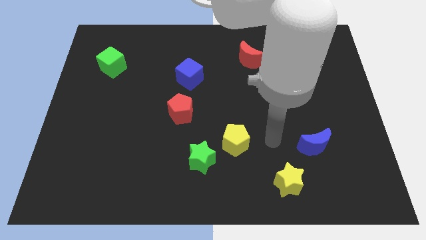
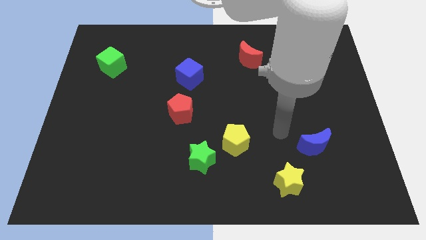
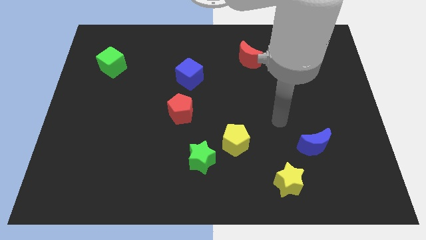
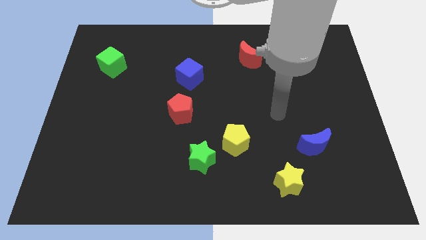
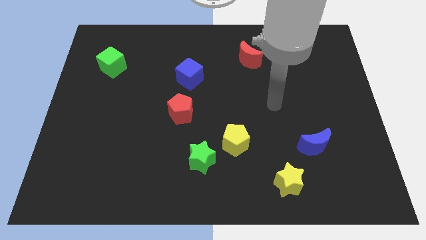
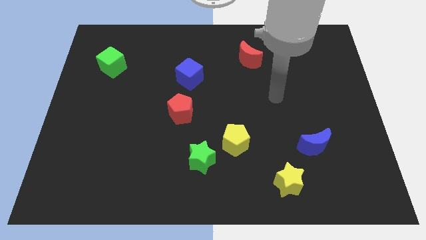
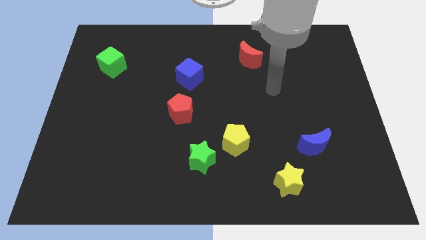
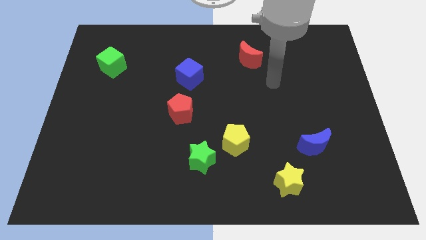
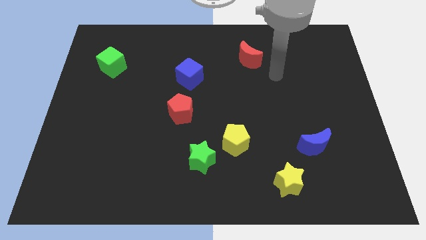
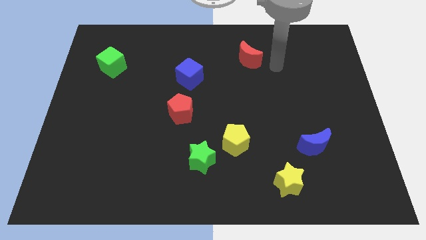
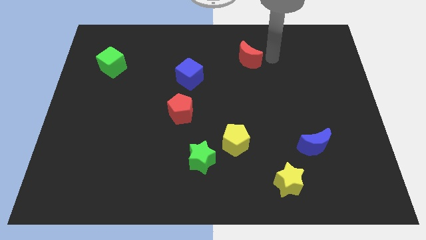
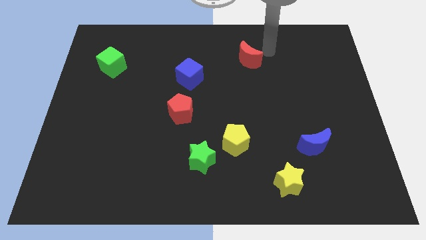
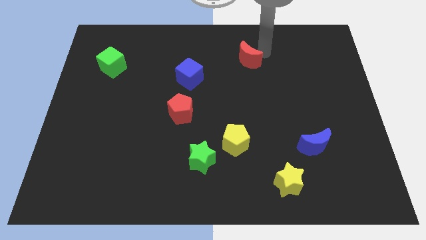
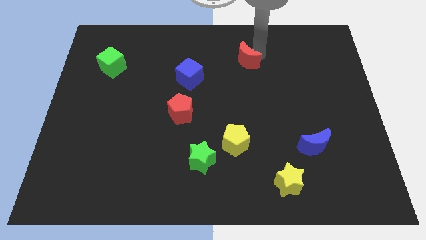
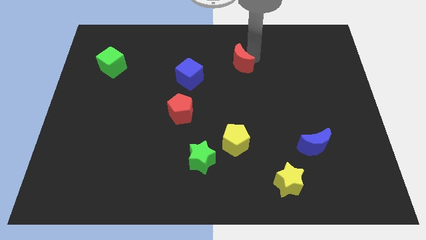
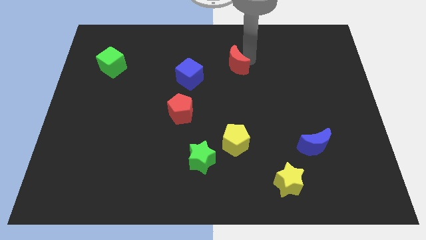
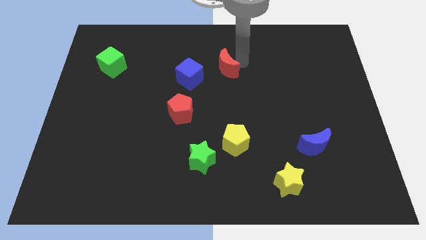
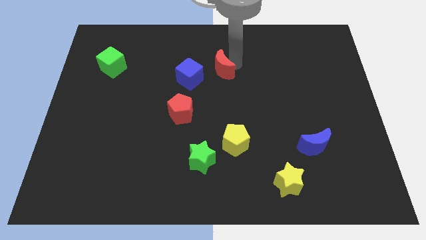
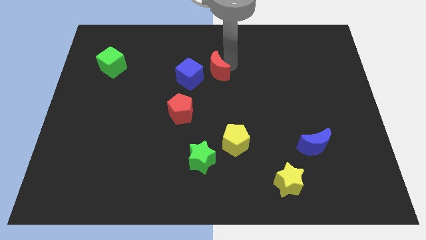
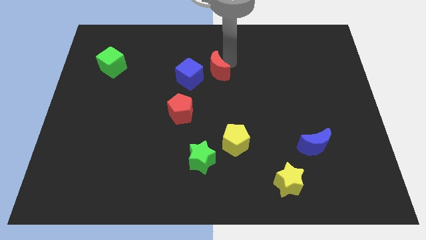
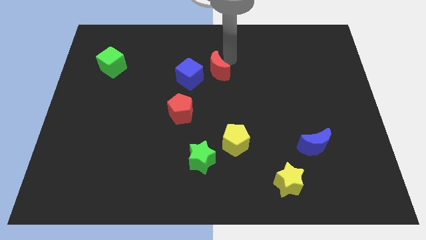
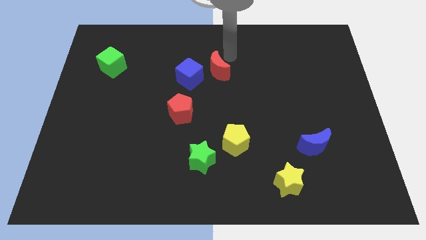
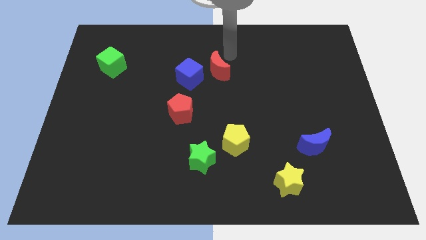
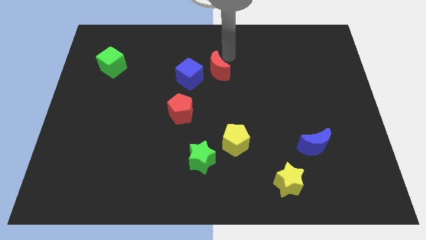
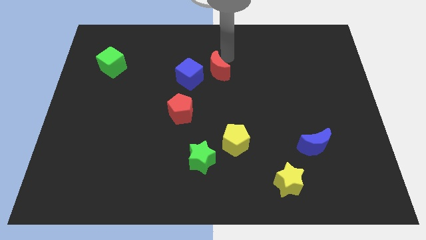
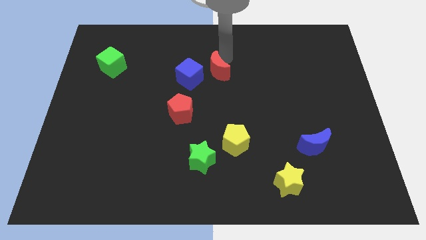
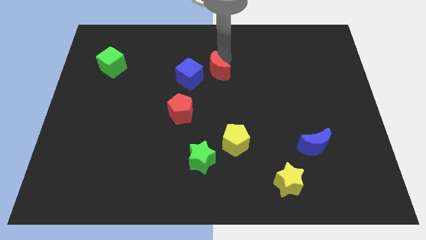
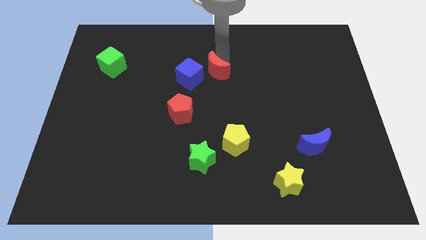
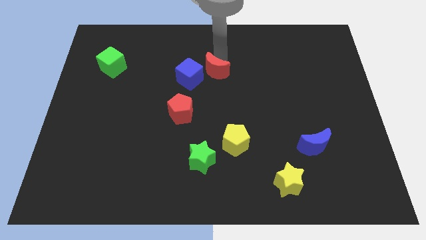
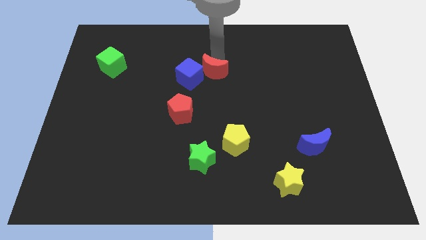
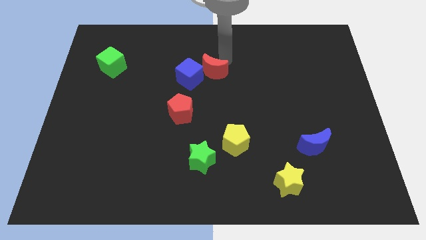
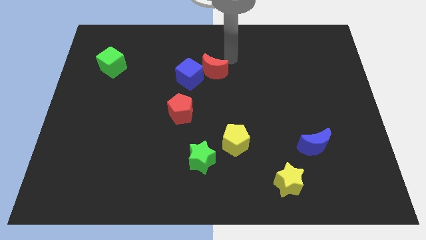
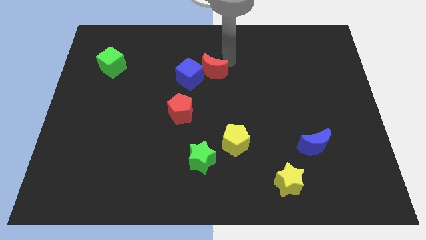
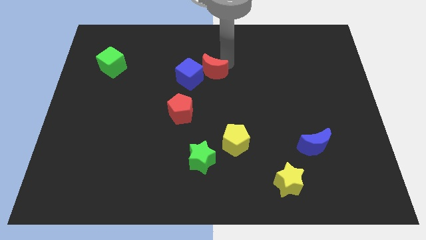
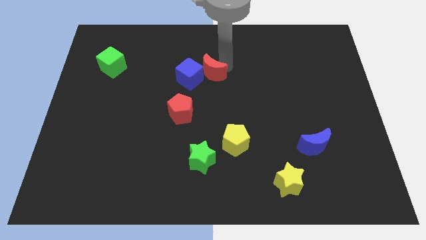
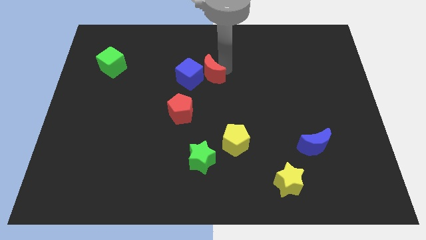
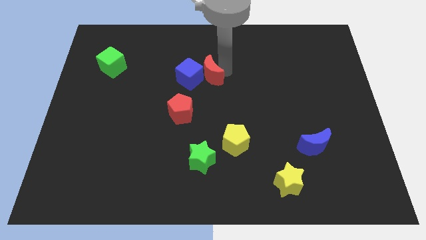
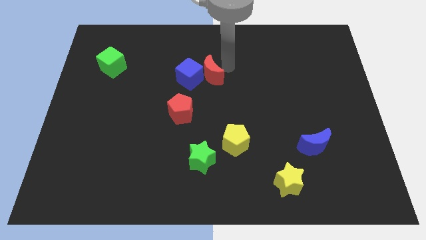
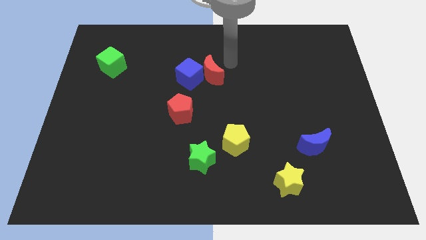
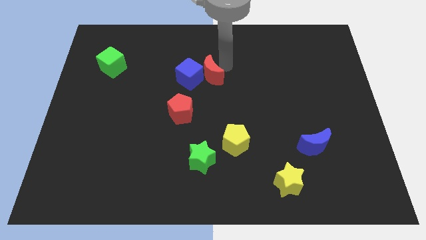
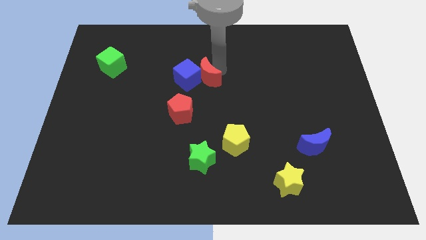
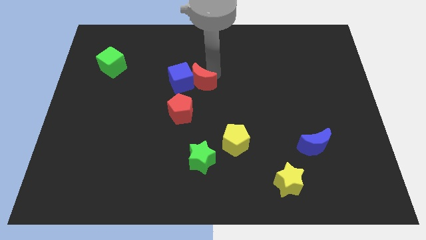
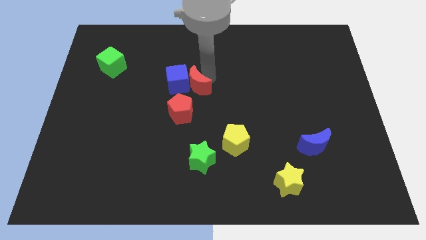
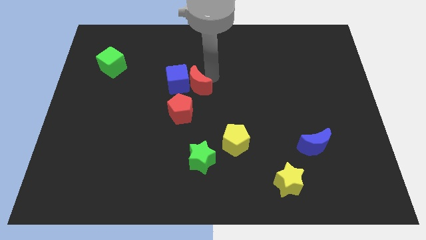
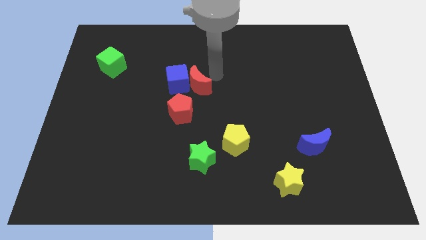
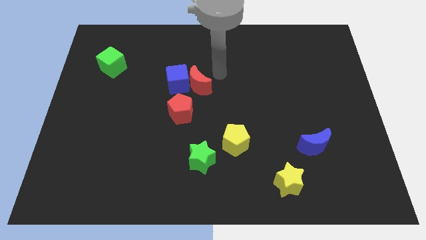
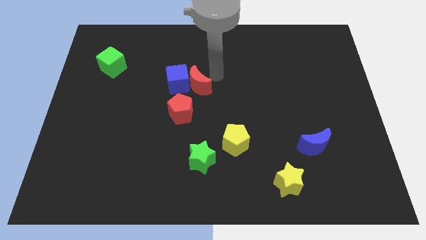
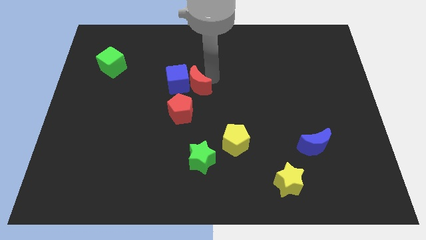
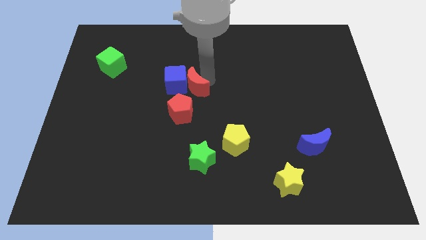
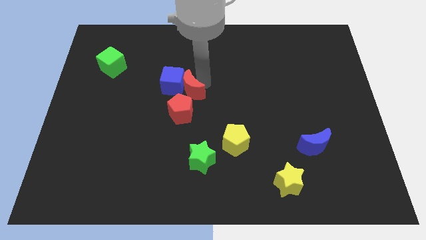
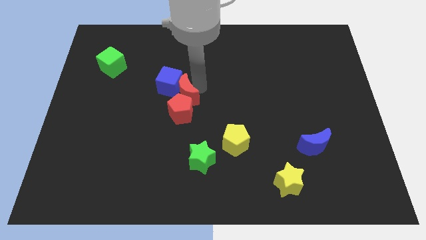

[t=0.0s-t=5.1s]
move the red moon to the top left of the red pentagon

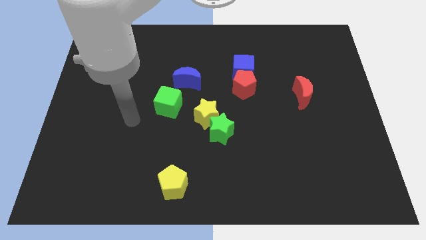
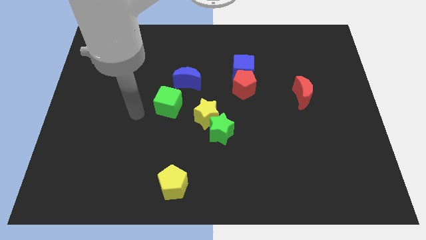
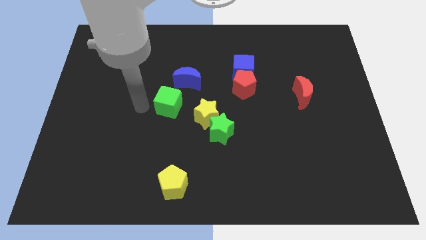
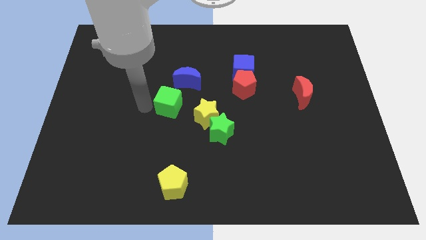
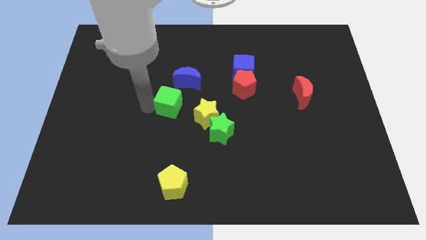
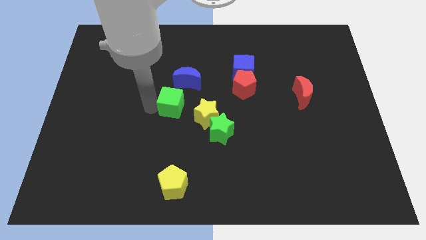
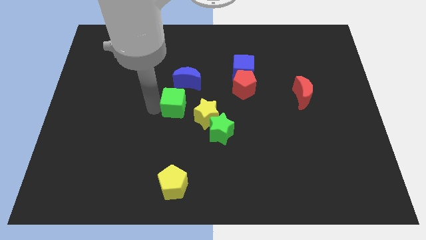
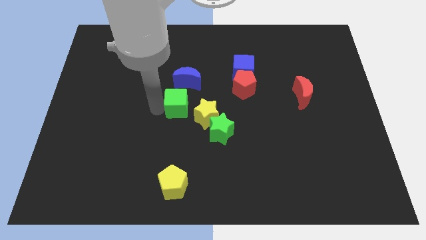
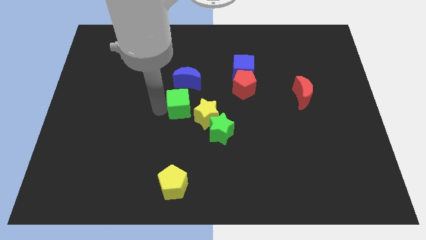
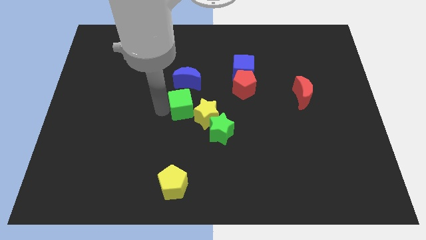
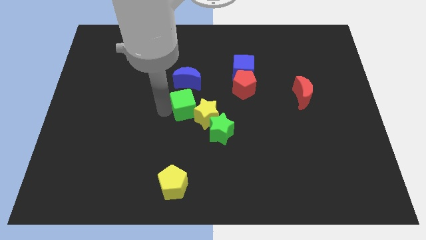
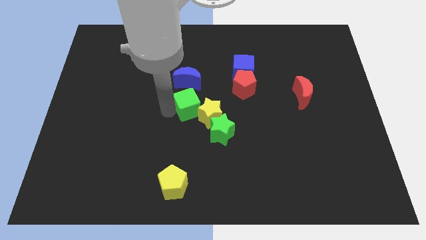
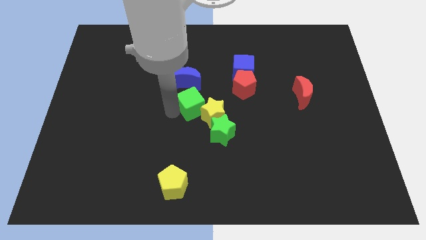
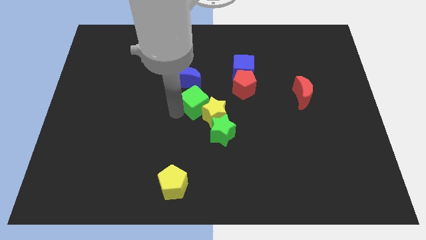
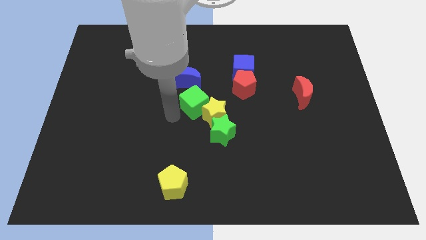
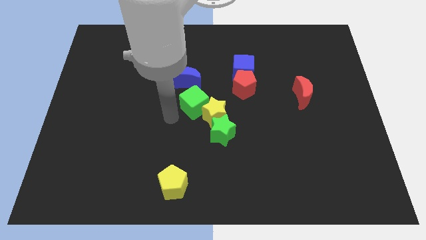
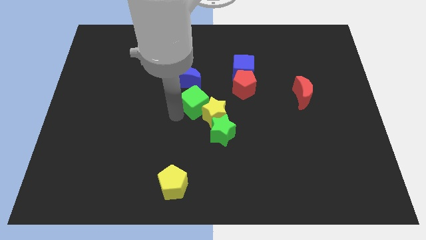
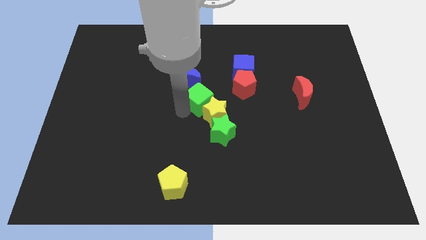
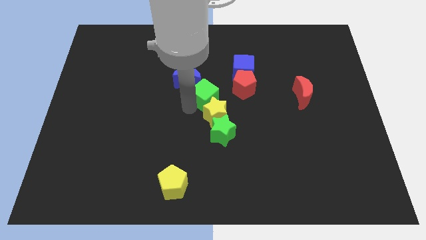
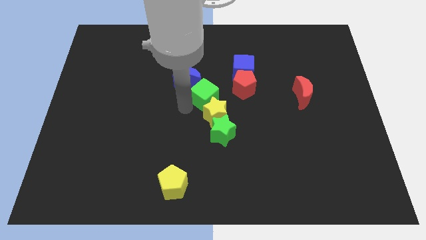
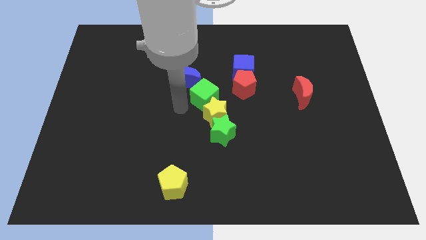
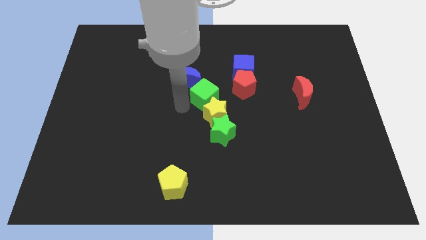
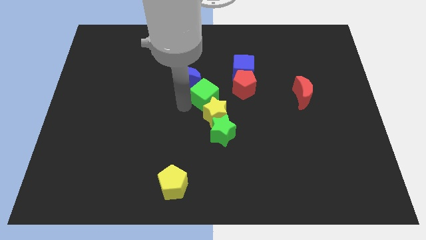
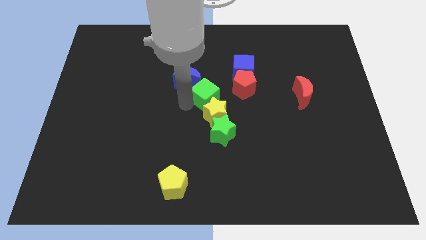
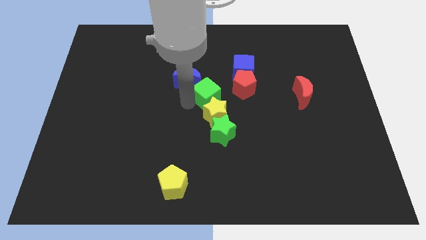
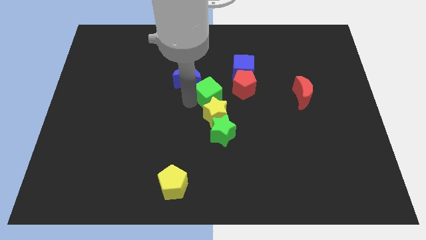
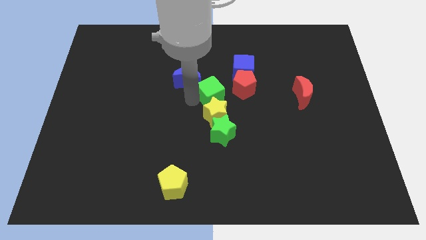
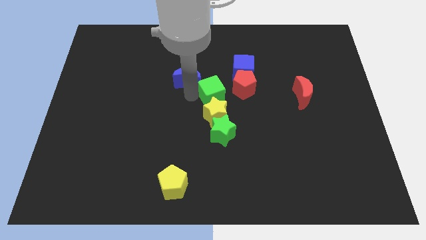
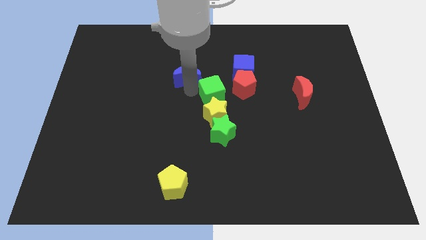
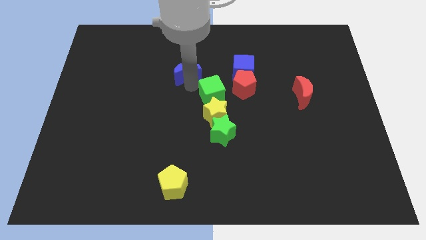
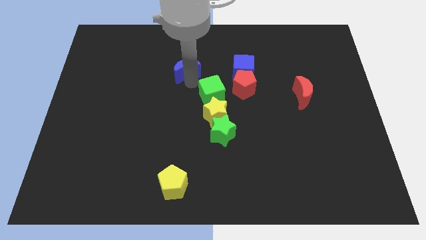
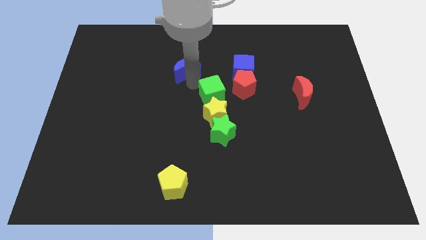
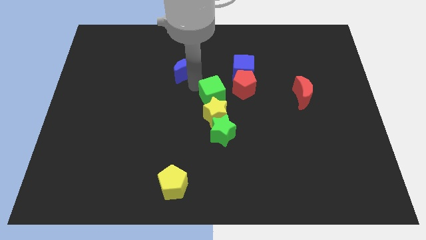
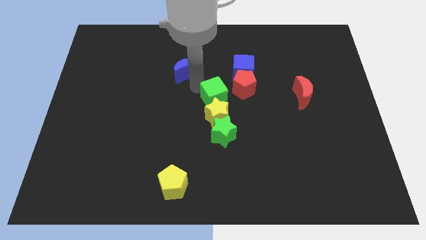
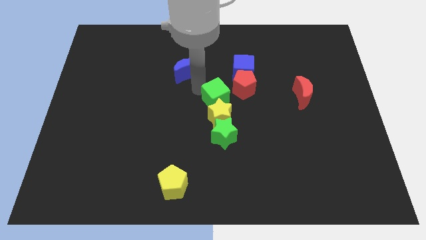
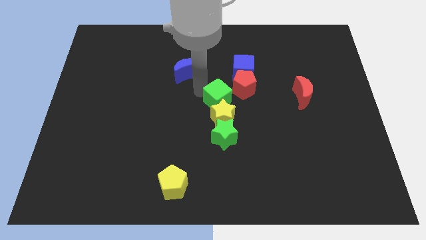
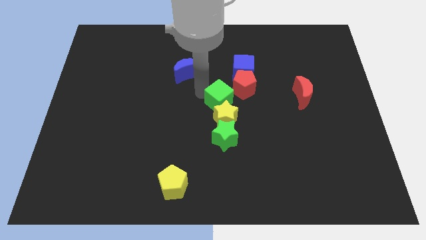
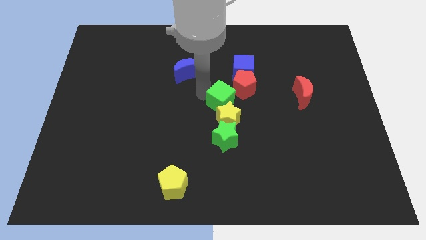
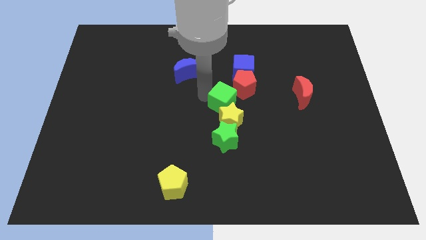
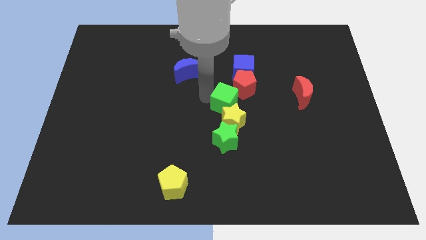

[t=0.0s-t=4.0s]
push the green cube to the bottom of the red pentagon
